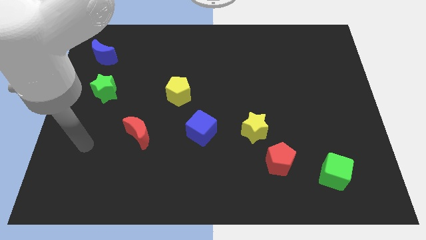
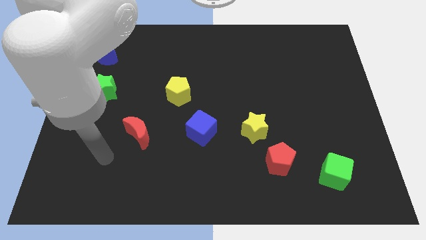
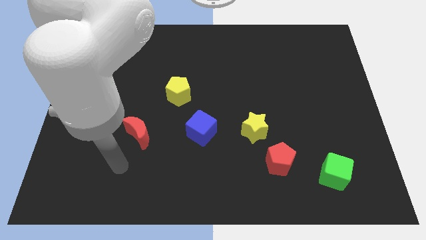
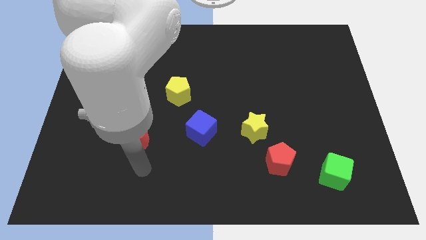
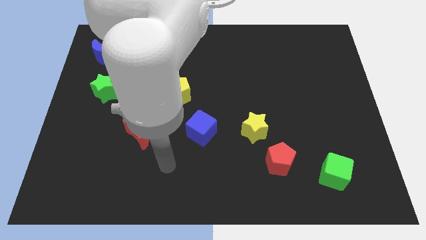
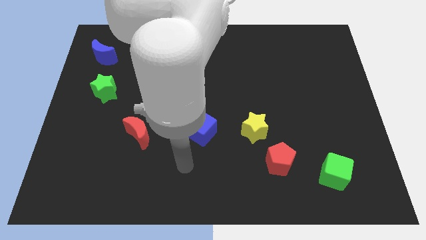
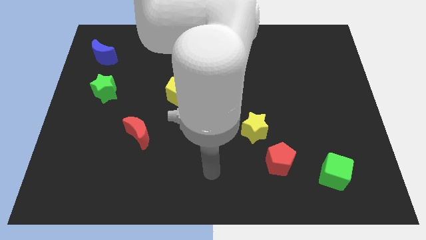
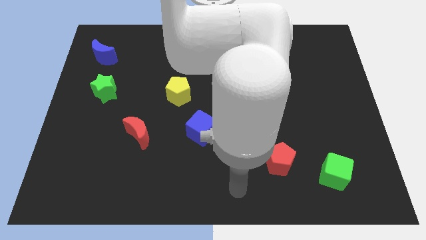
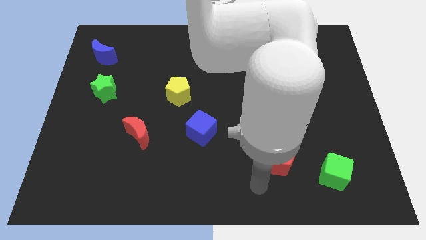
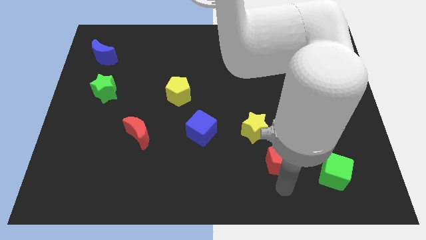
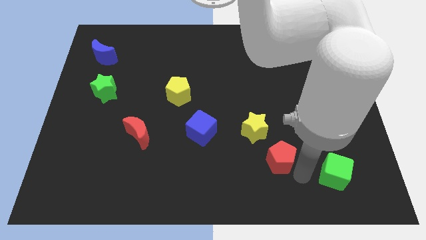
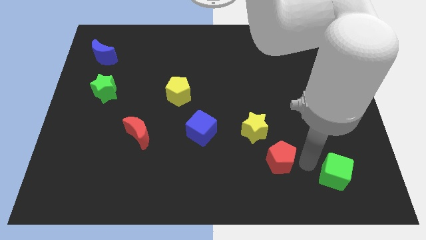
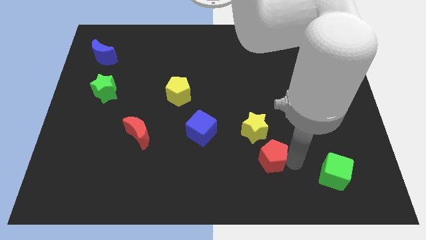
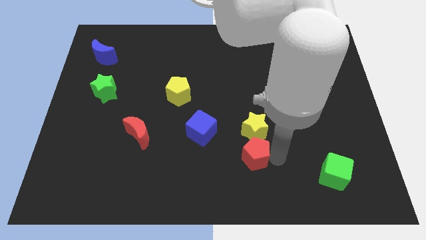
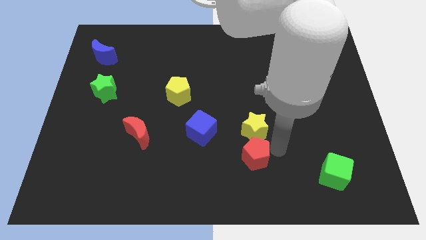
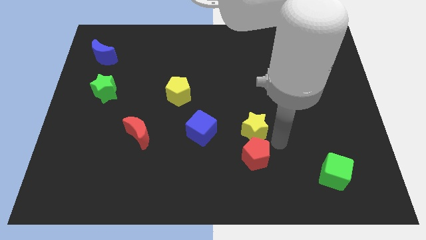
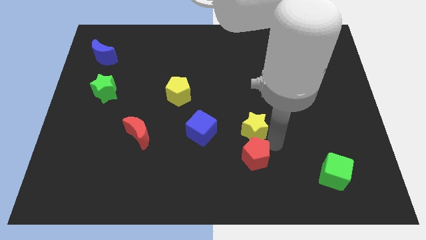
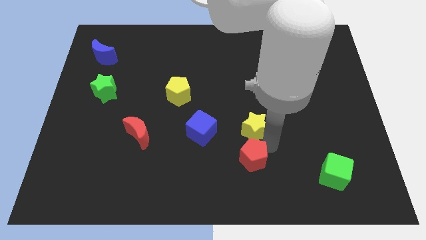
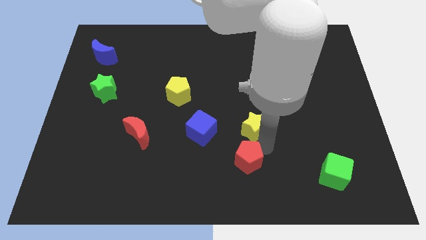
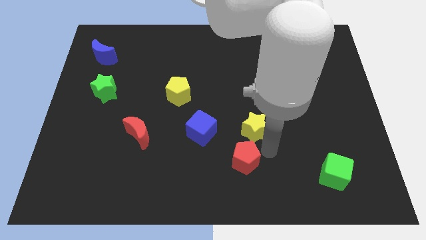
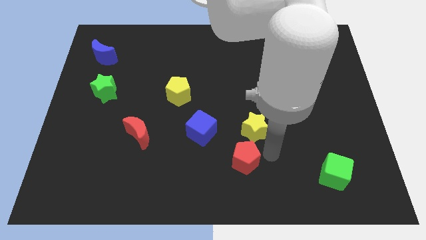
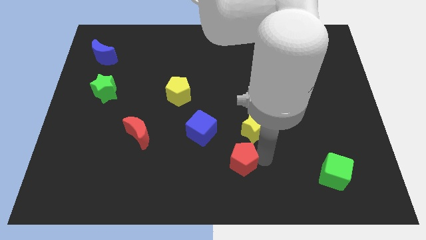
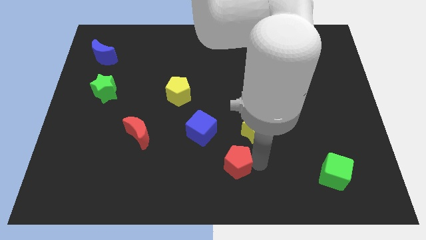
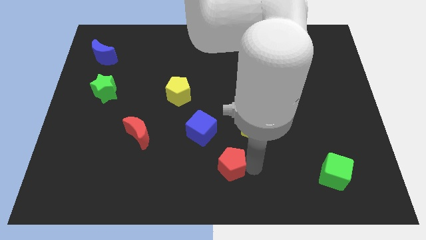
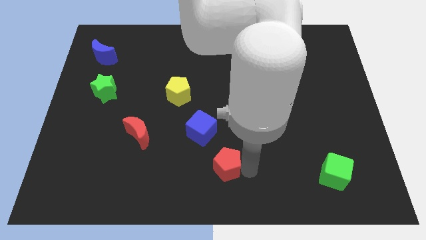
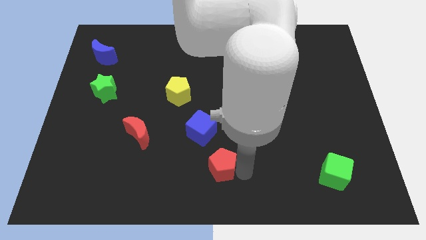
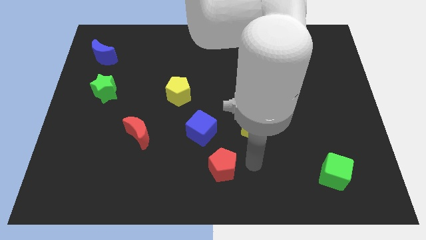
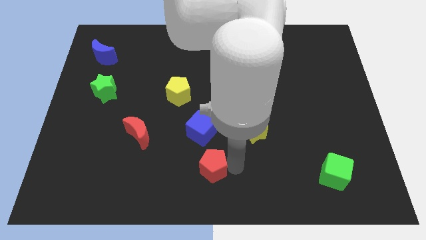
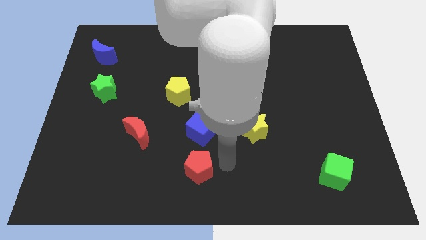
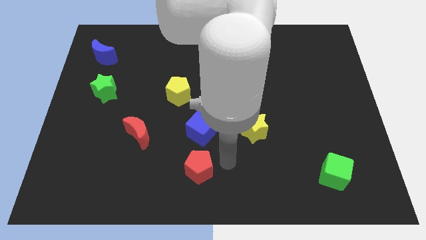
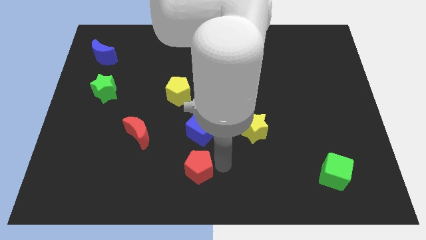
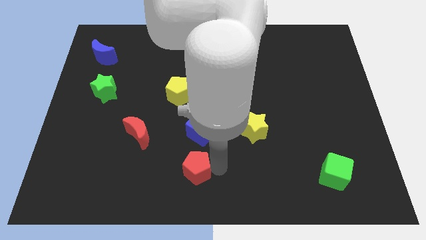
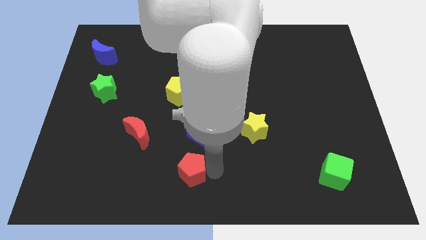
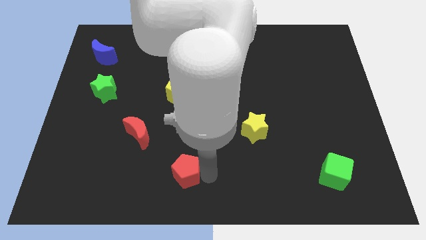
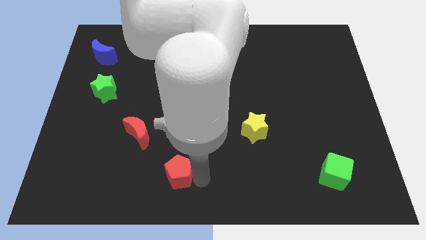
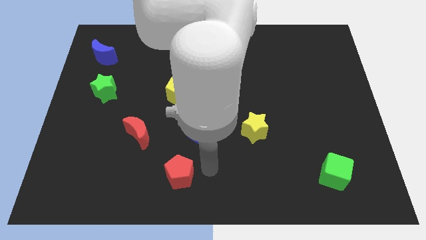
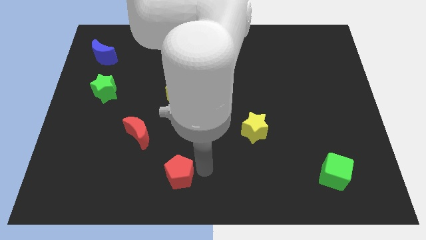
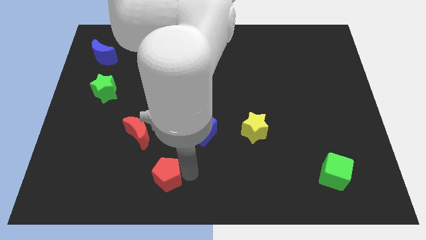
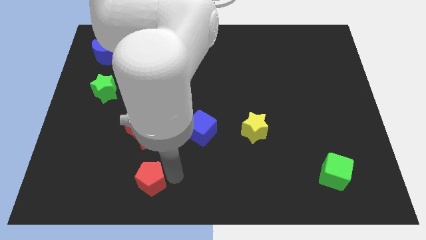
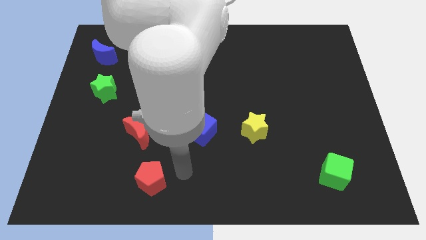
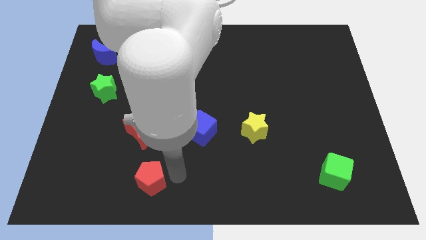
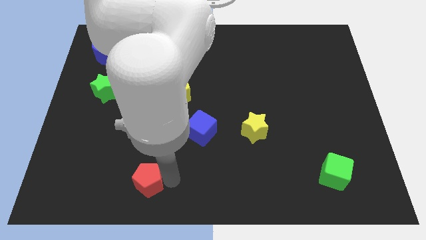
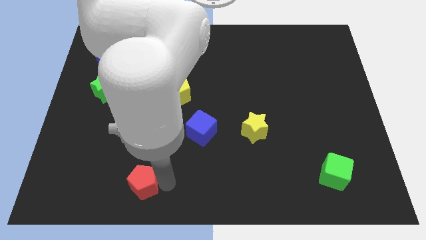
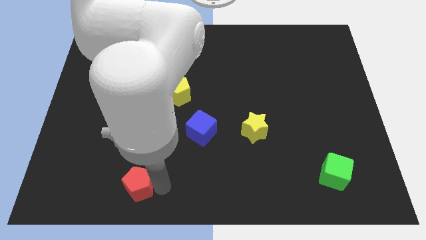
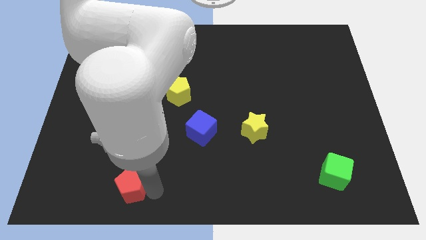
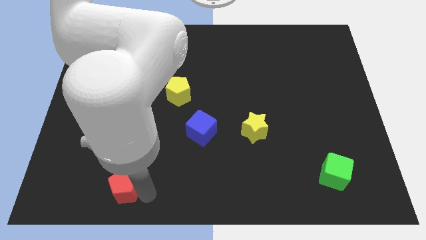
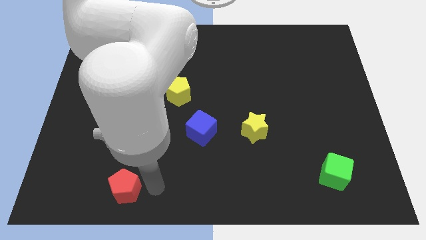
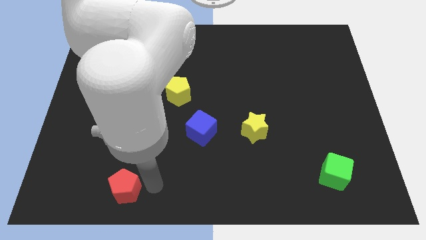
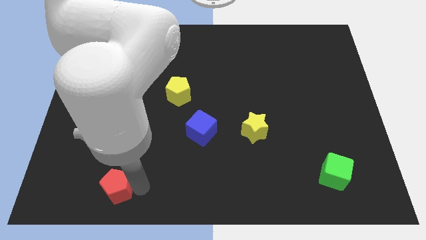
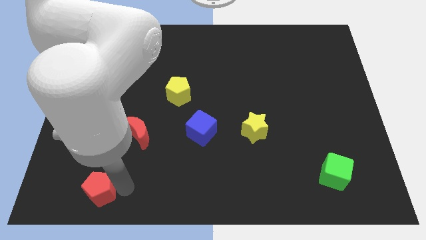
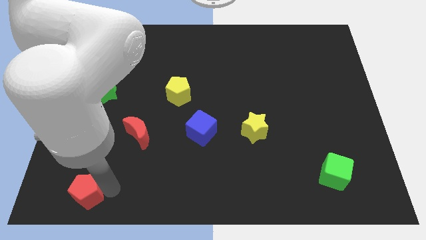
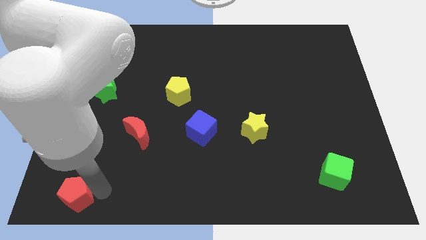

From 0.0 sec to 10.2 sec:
put the red pentagon to the lower left corner

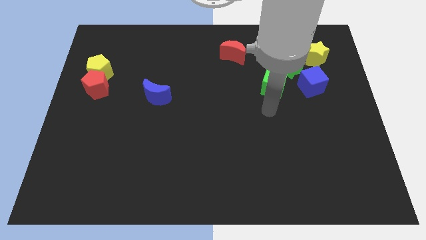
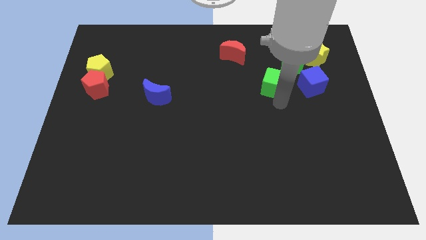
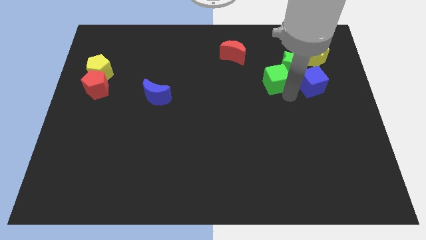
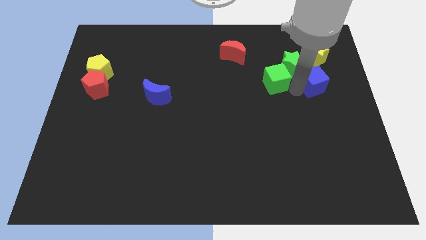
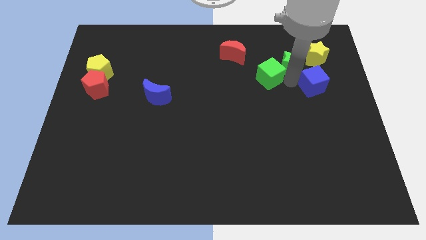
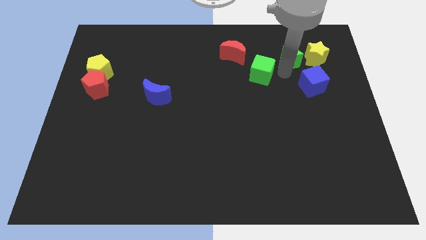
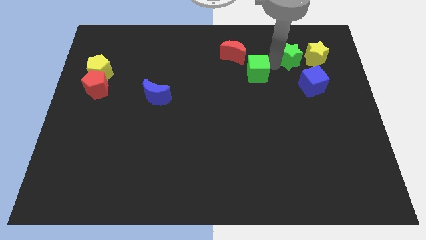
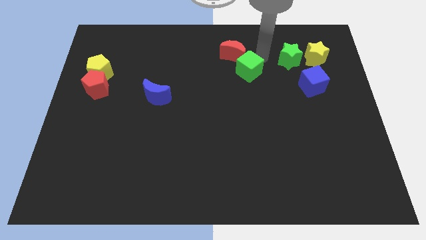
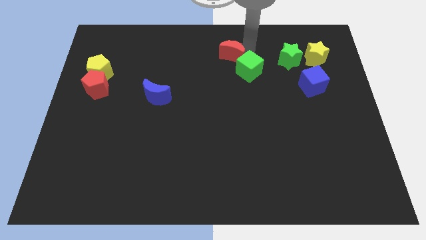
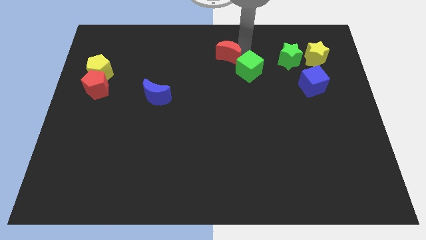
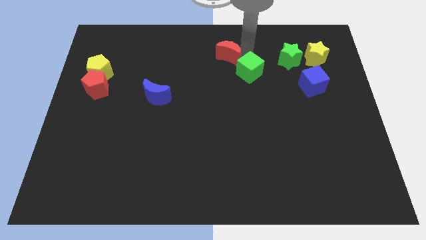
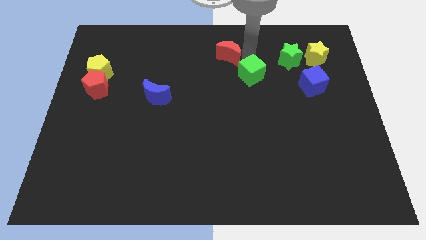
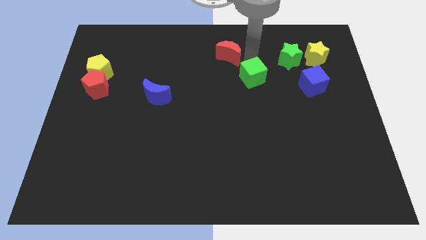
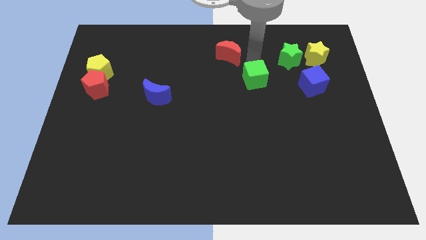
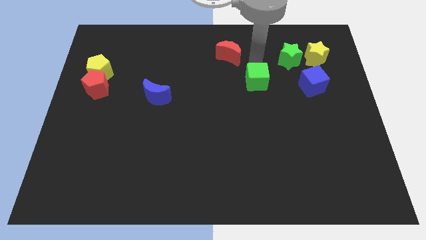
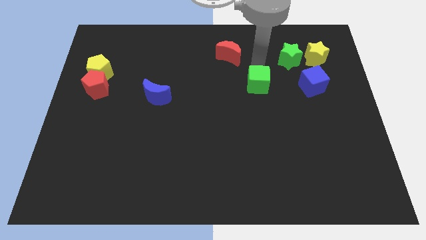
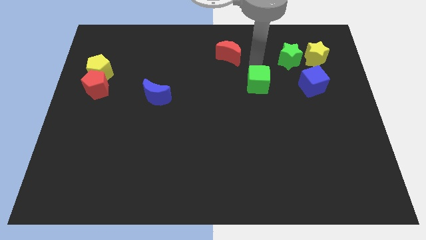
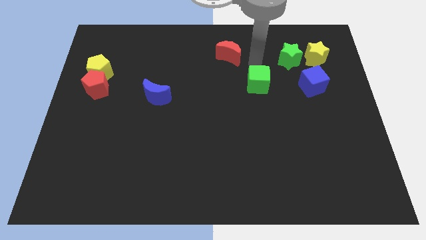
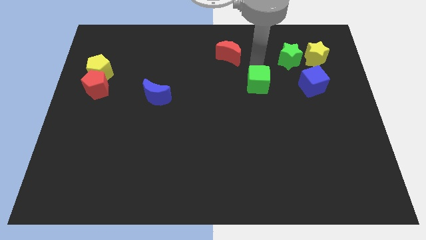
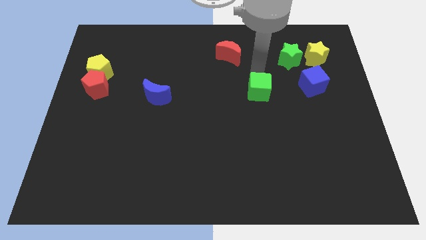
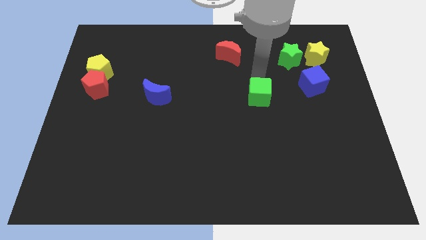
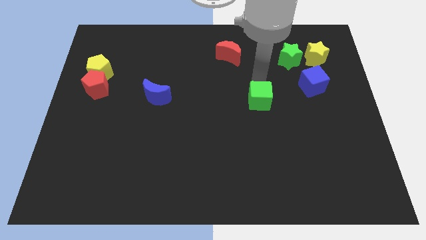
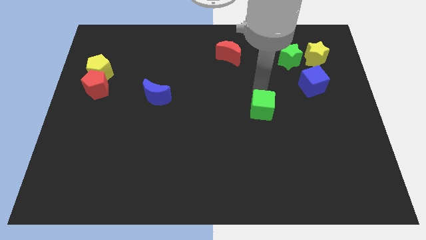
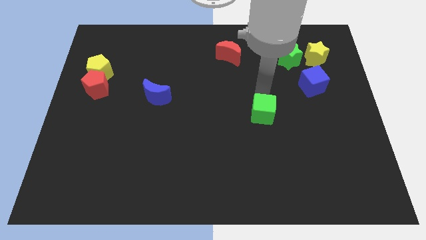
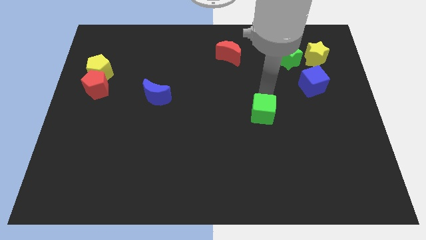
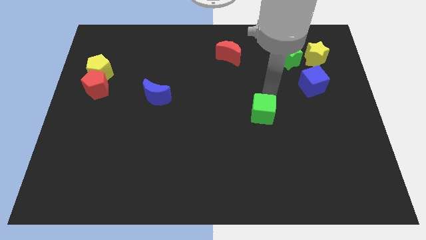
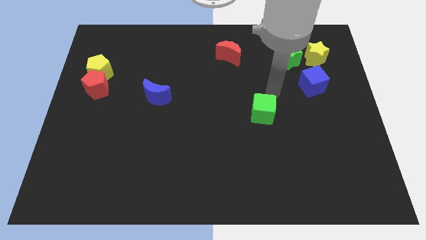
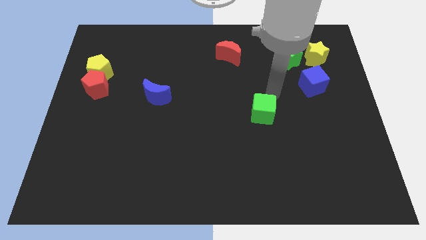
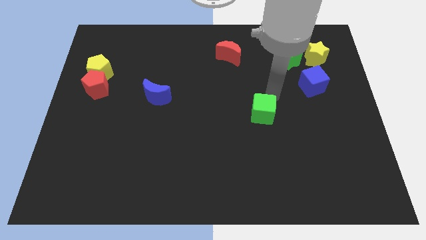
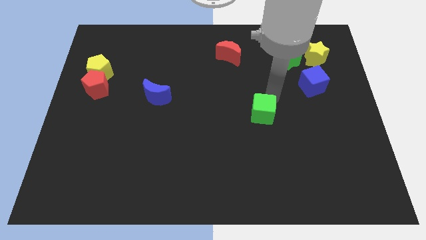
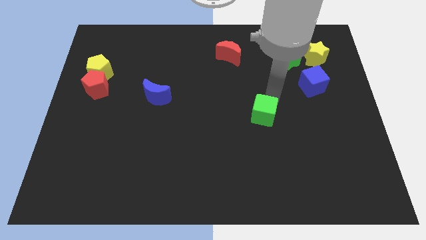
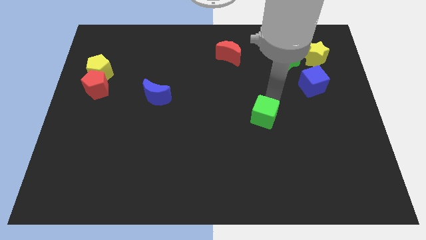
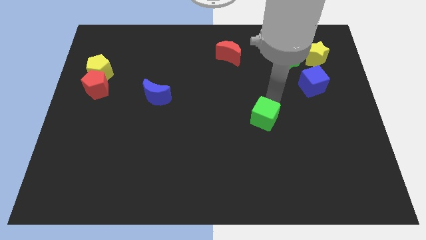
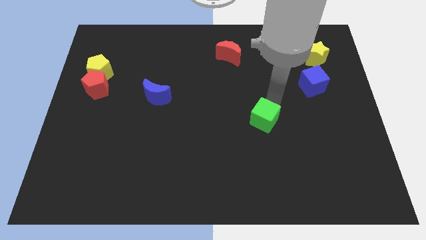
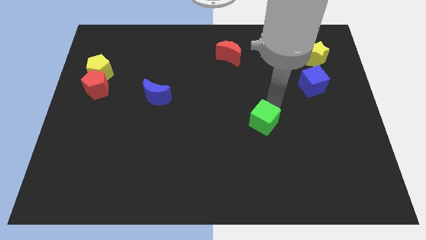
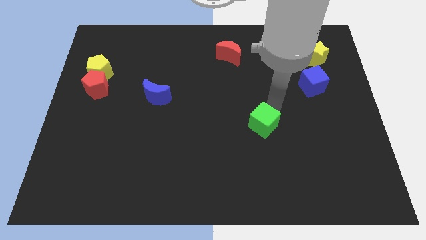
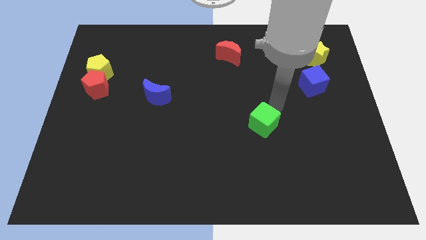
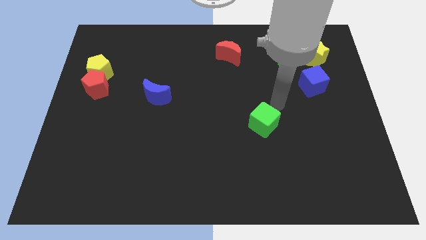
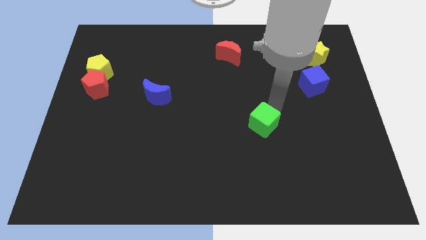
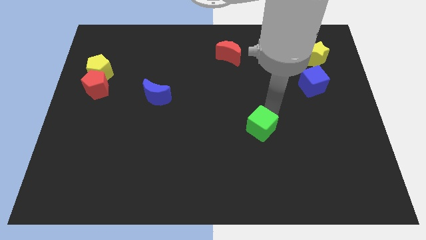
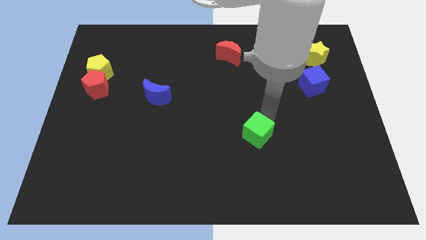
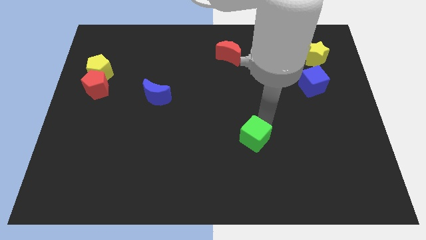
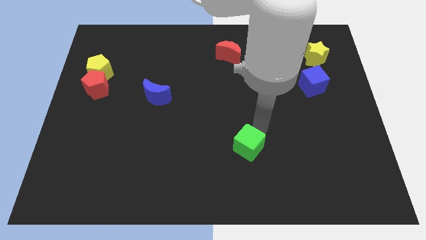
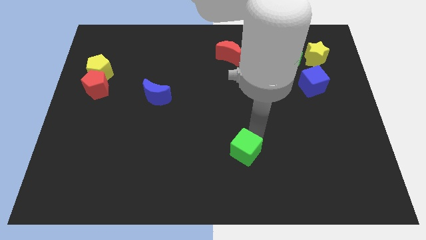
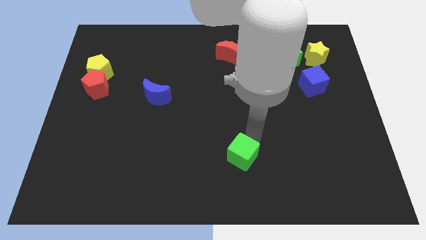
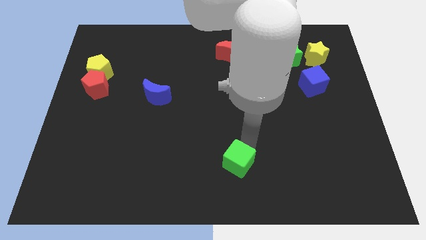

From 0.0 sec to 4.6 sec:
move the green cube to the bottom
